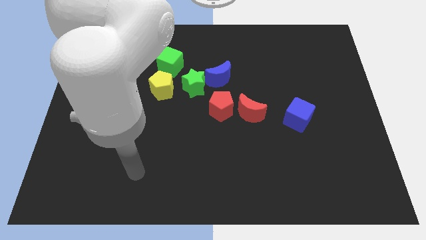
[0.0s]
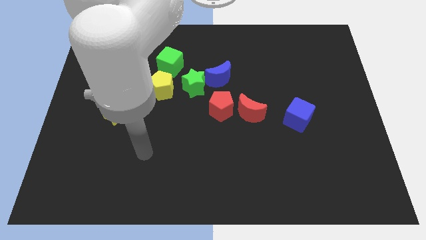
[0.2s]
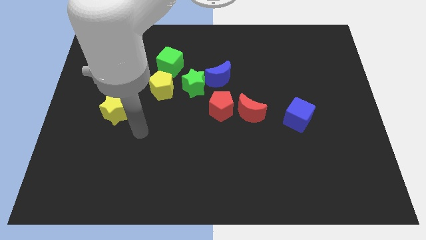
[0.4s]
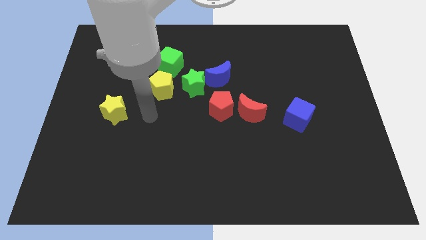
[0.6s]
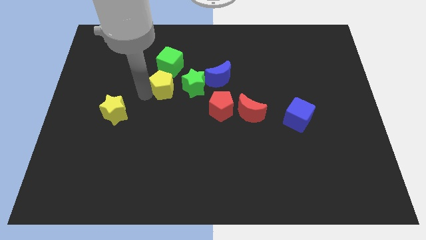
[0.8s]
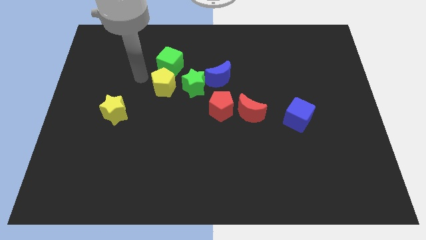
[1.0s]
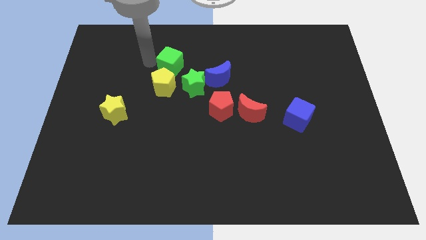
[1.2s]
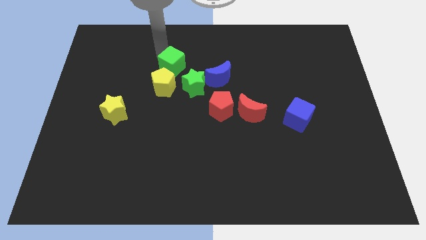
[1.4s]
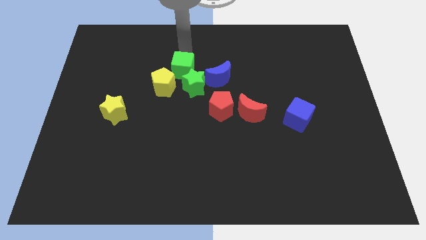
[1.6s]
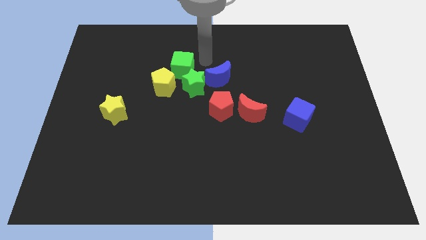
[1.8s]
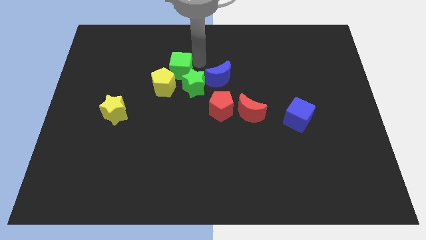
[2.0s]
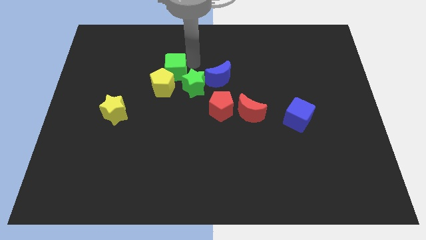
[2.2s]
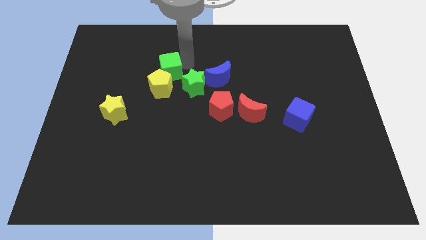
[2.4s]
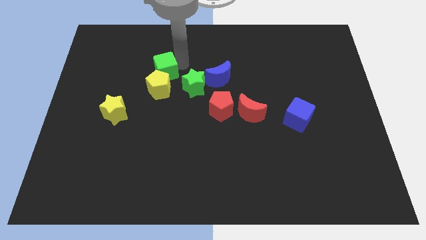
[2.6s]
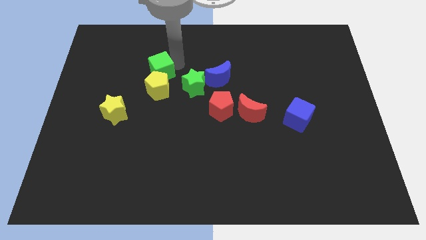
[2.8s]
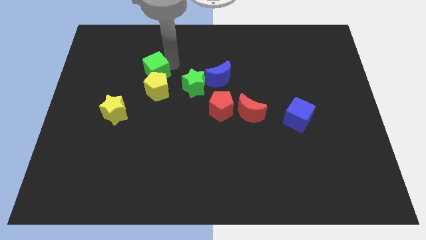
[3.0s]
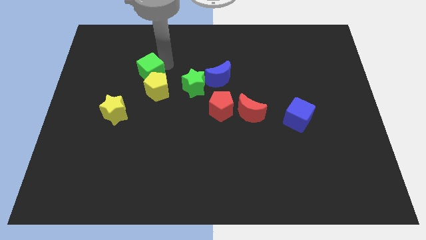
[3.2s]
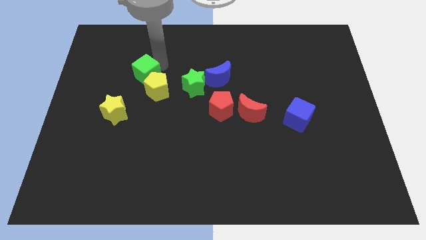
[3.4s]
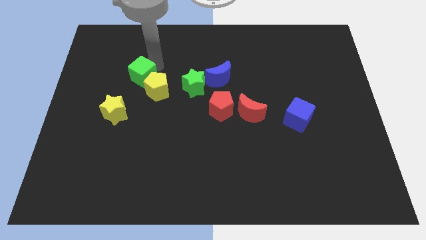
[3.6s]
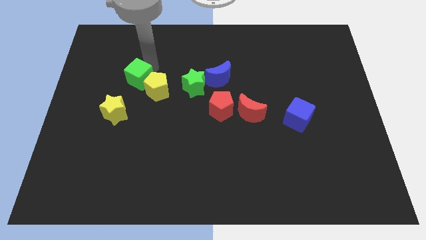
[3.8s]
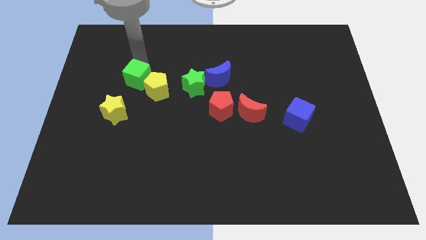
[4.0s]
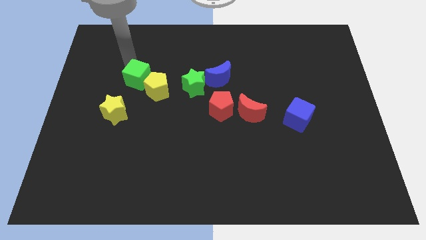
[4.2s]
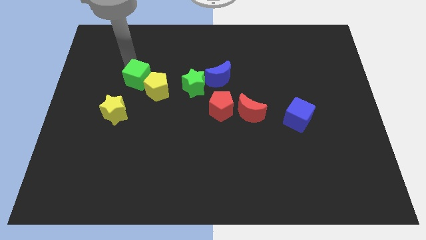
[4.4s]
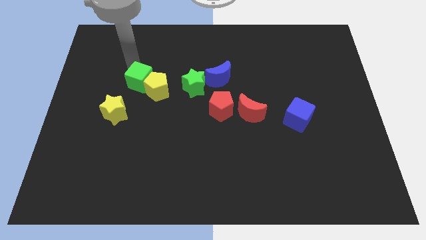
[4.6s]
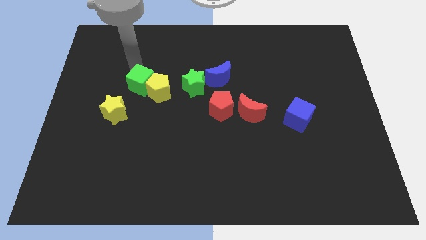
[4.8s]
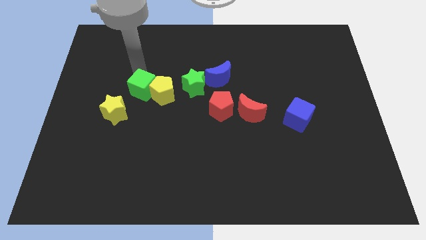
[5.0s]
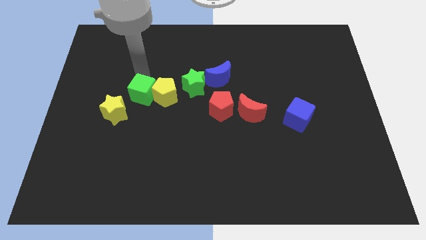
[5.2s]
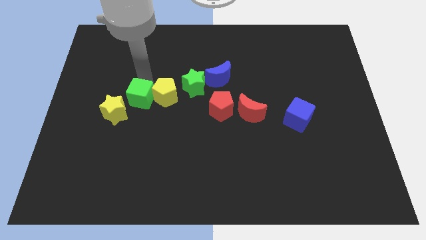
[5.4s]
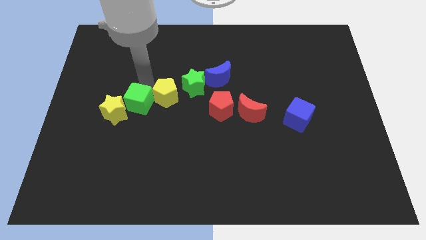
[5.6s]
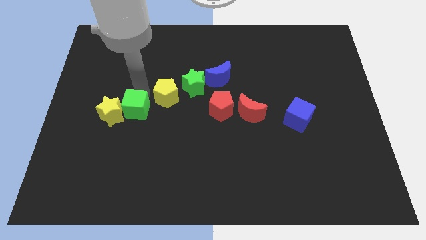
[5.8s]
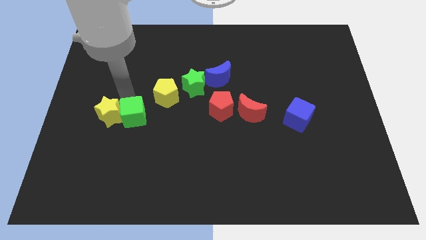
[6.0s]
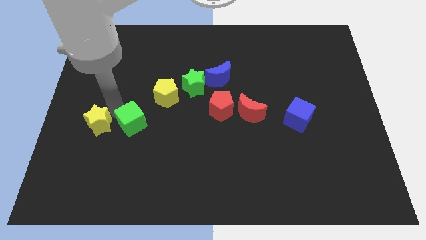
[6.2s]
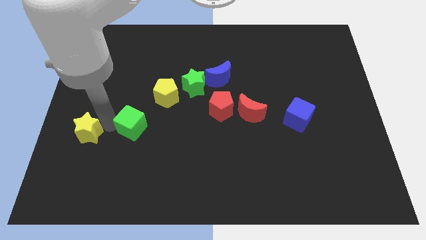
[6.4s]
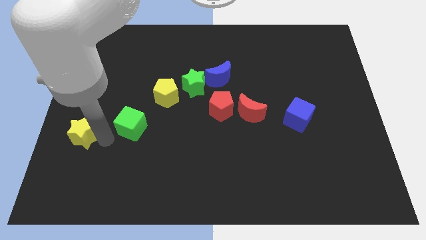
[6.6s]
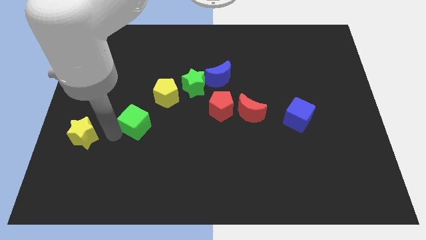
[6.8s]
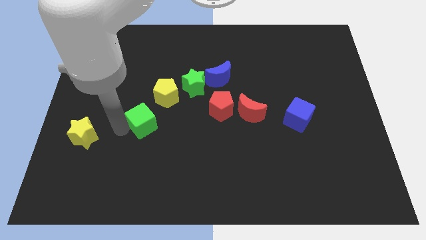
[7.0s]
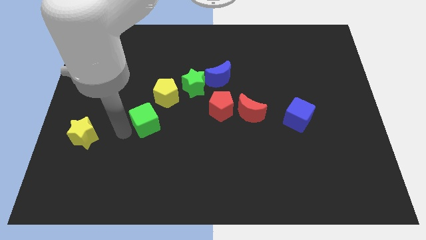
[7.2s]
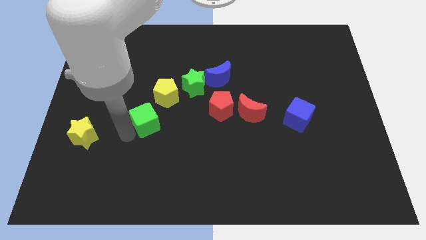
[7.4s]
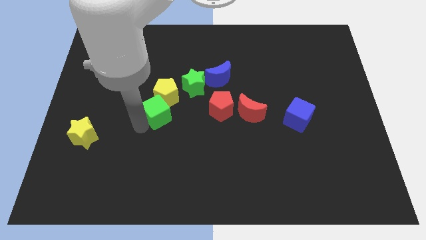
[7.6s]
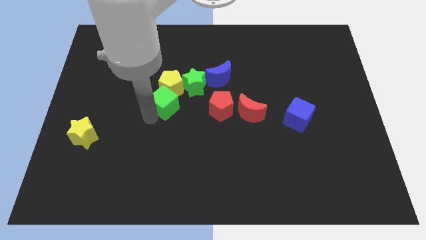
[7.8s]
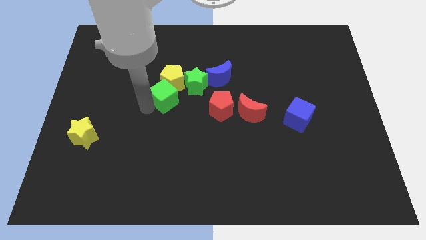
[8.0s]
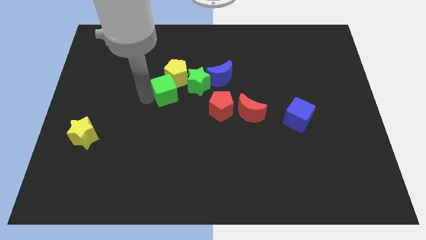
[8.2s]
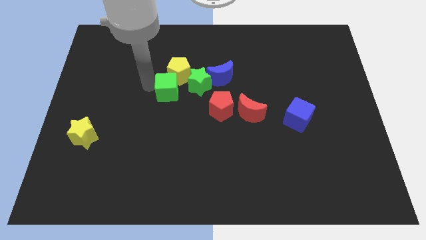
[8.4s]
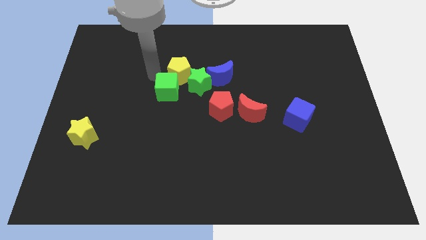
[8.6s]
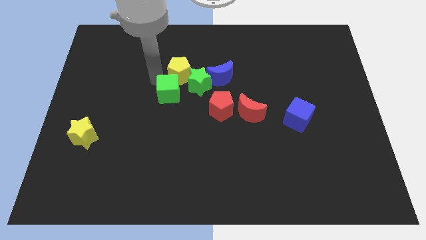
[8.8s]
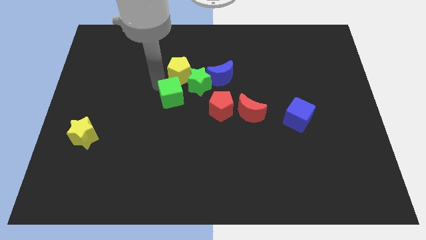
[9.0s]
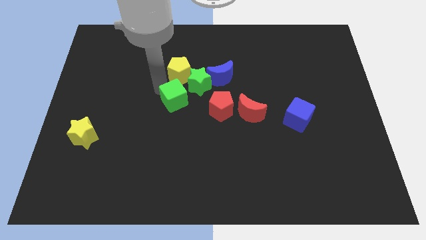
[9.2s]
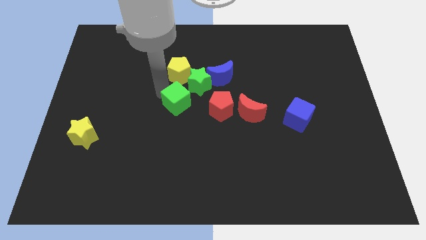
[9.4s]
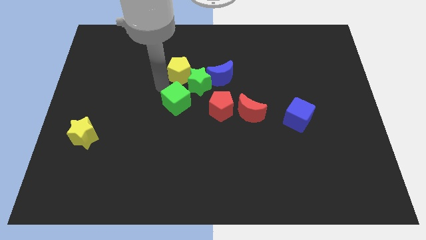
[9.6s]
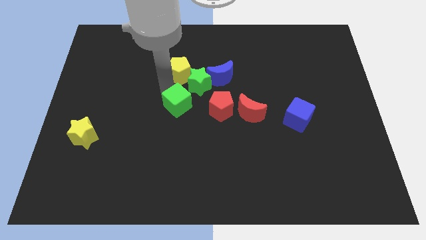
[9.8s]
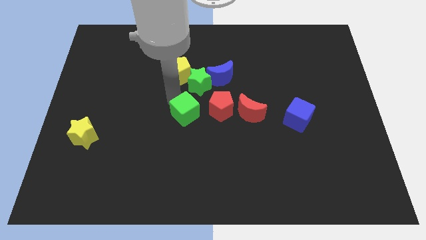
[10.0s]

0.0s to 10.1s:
move the green cube to the bottom left side of the red pentagon

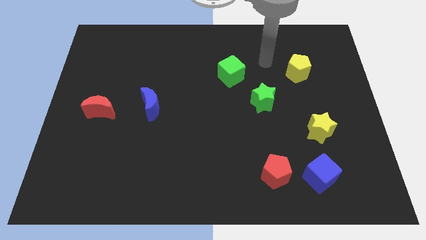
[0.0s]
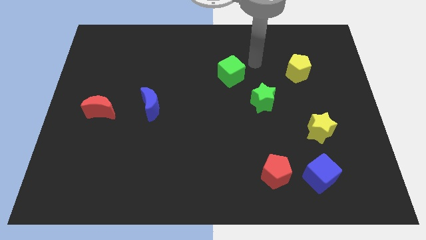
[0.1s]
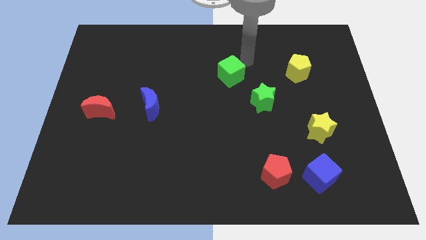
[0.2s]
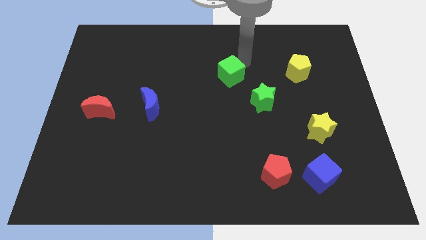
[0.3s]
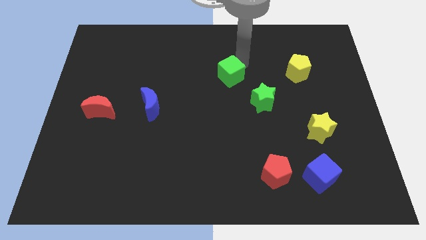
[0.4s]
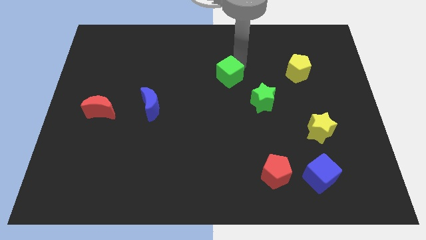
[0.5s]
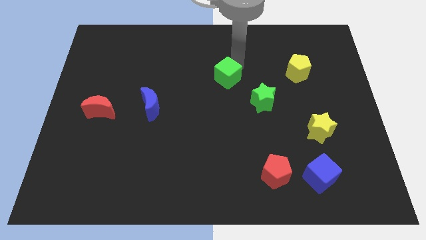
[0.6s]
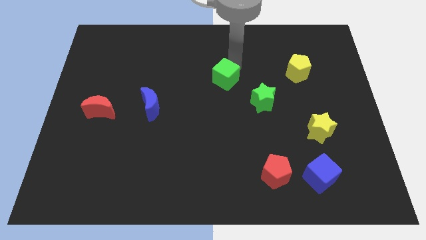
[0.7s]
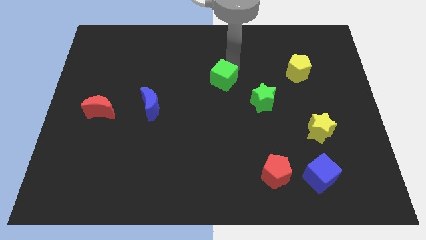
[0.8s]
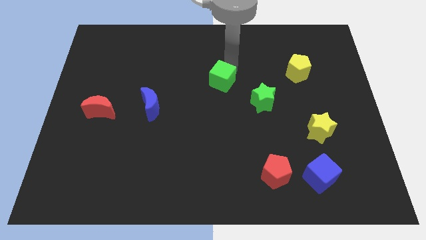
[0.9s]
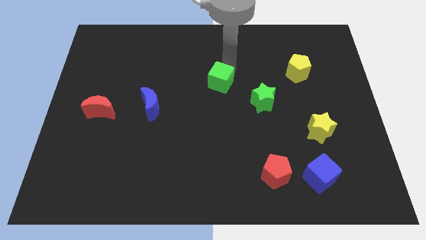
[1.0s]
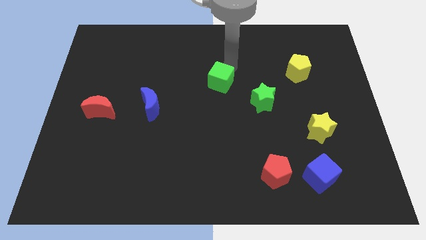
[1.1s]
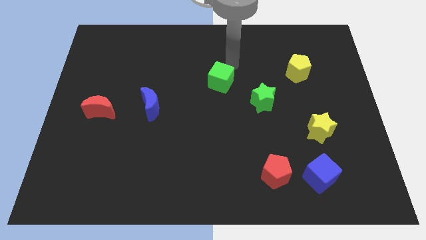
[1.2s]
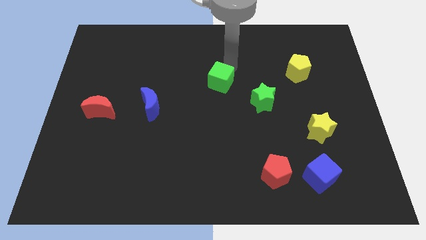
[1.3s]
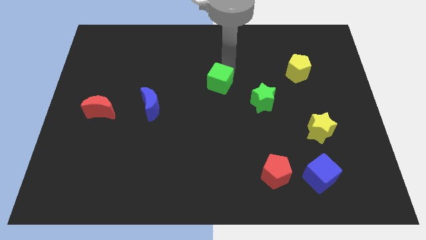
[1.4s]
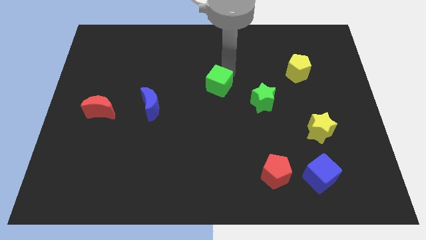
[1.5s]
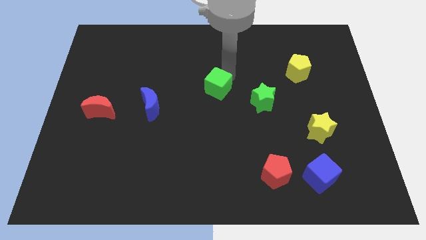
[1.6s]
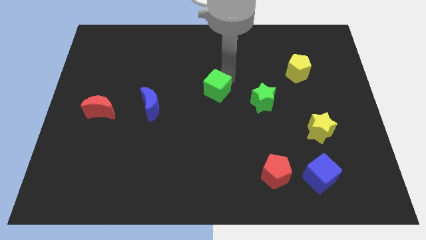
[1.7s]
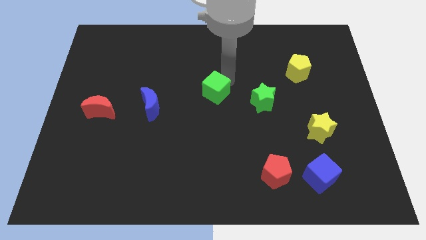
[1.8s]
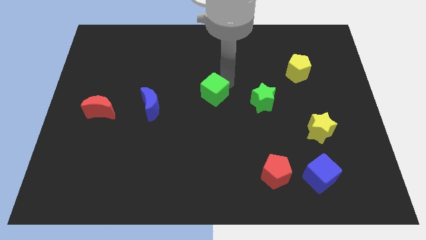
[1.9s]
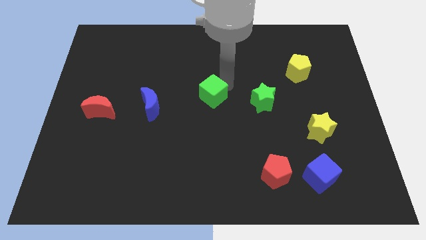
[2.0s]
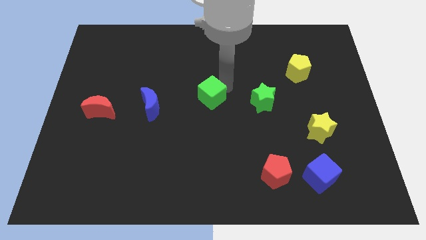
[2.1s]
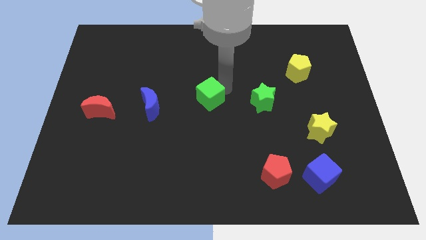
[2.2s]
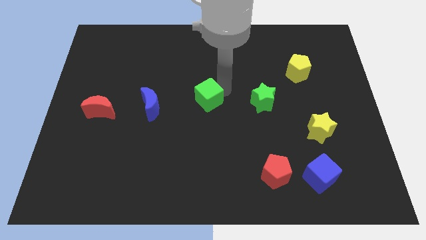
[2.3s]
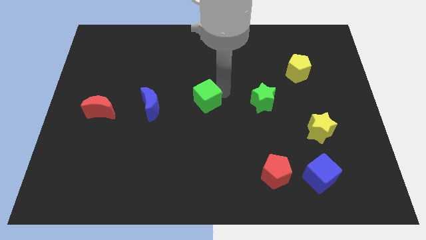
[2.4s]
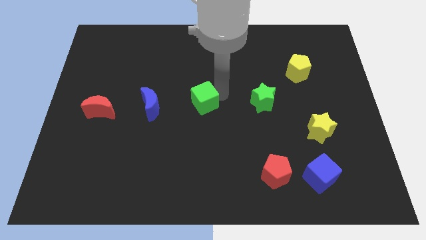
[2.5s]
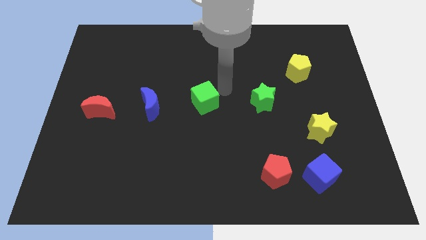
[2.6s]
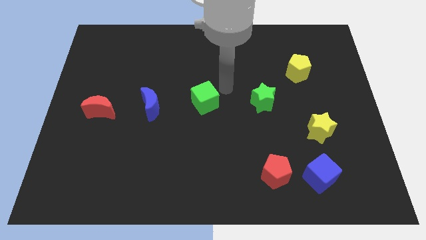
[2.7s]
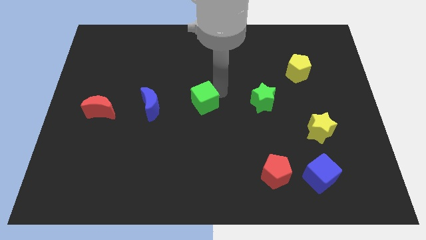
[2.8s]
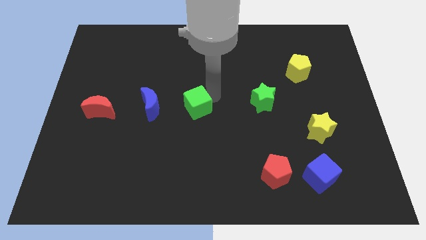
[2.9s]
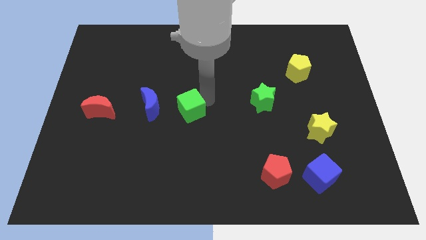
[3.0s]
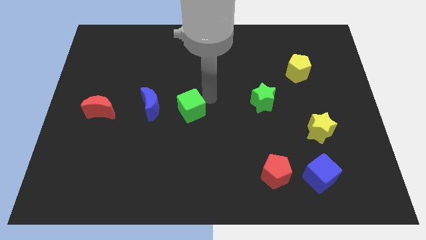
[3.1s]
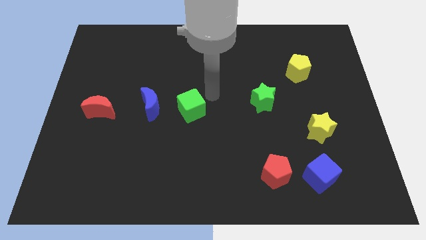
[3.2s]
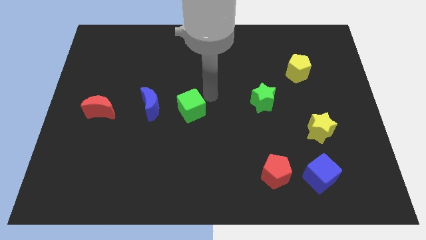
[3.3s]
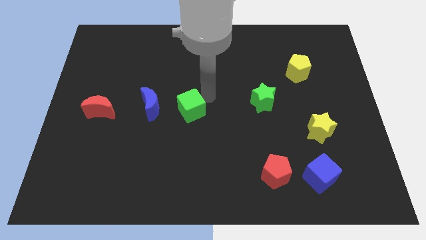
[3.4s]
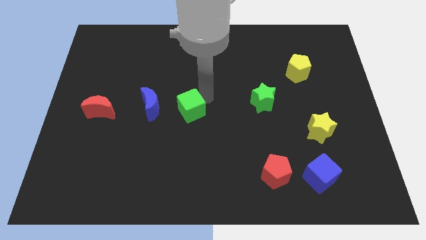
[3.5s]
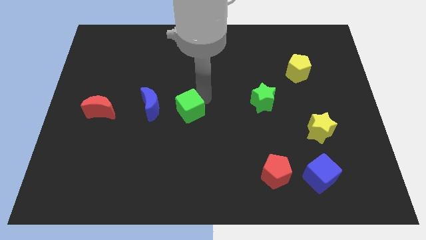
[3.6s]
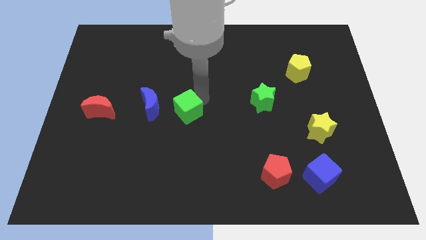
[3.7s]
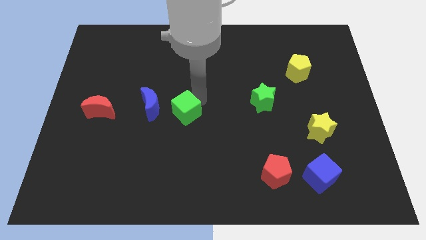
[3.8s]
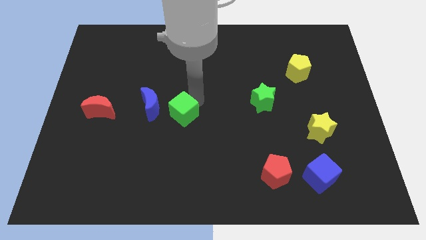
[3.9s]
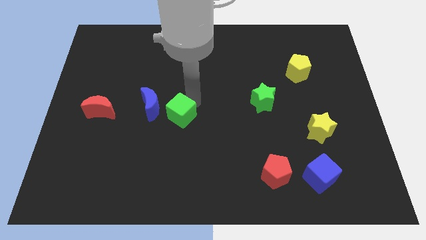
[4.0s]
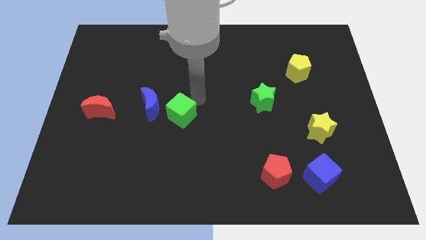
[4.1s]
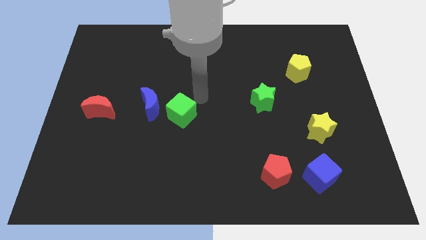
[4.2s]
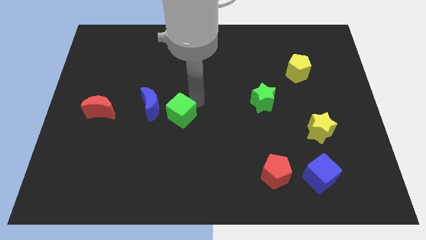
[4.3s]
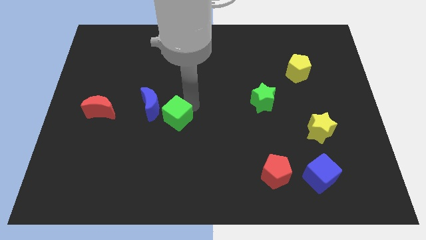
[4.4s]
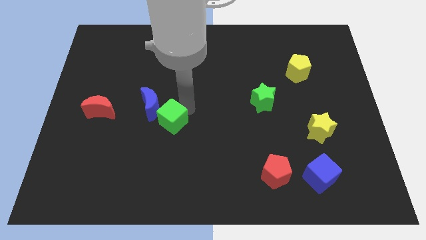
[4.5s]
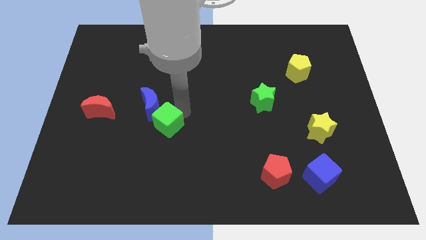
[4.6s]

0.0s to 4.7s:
move the green cube to the bottom of the blue moon
